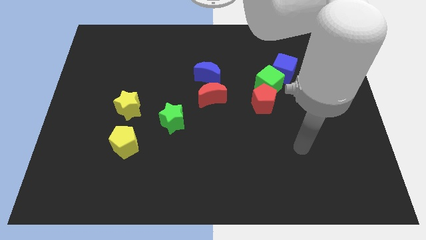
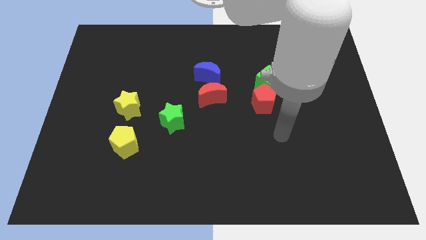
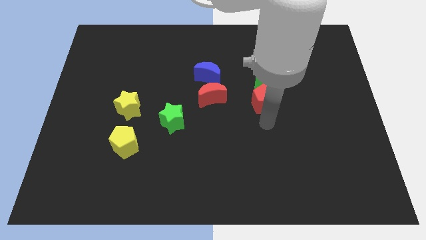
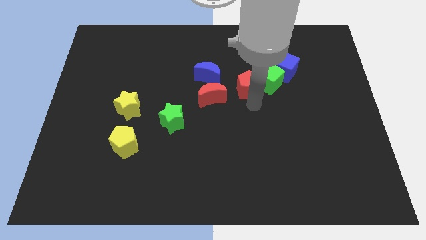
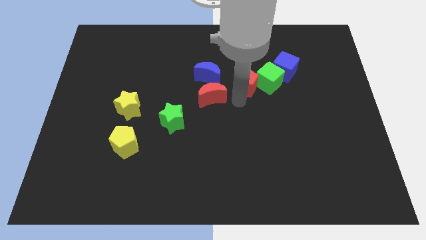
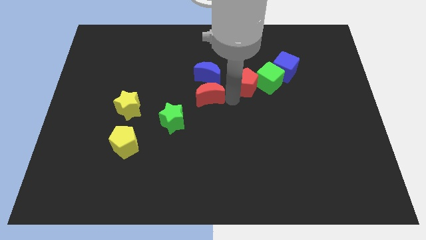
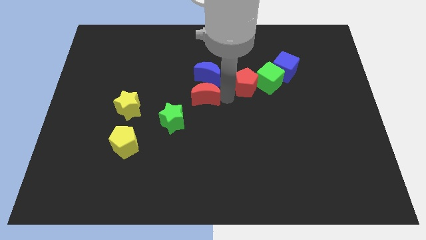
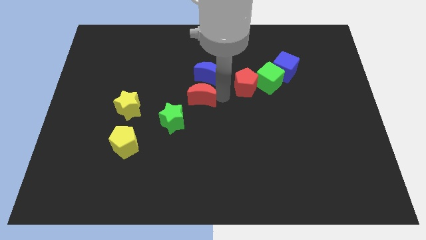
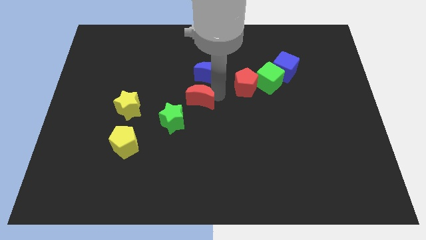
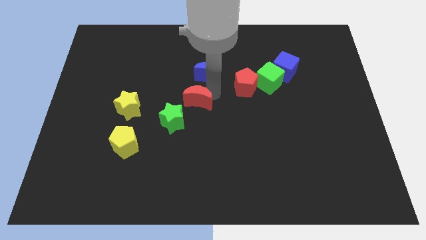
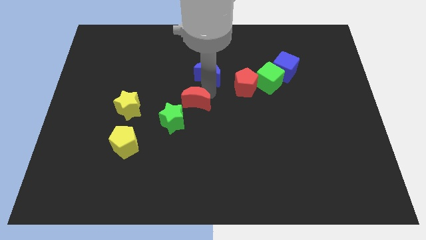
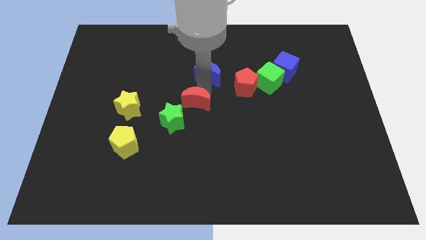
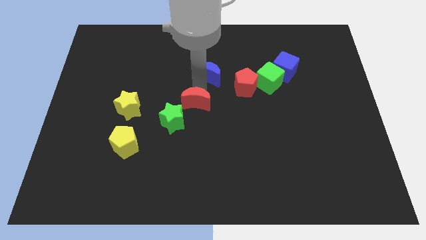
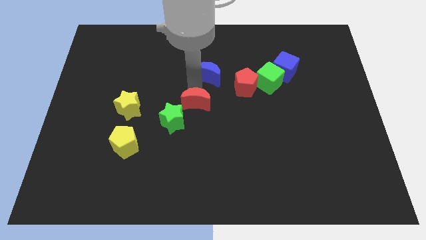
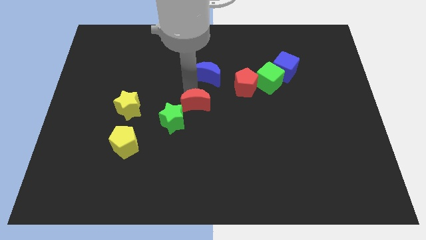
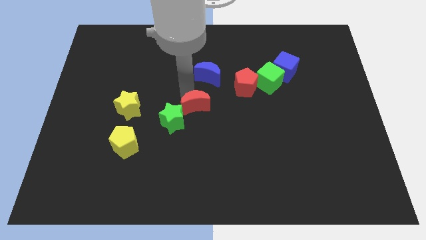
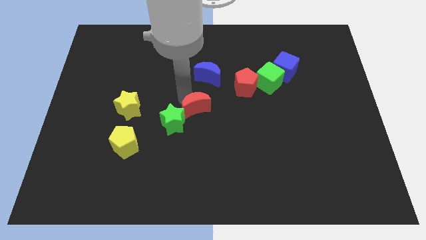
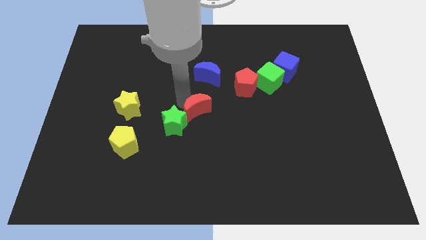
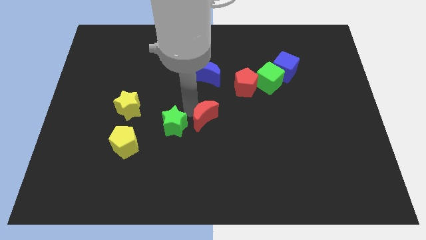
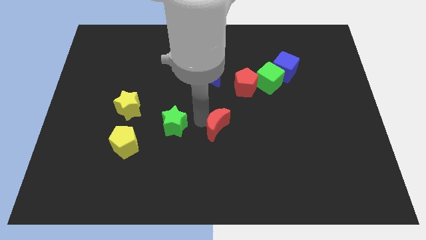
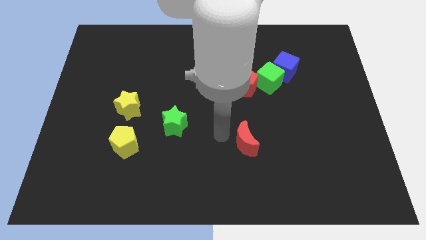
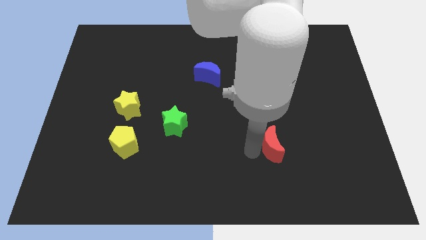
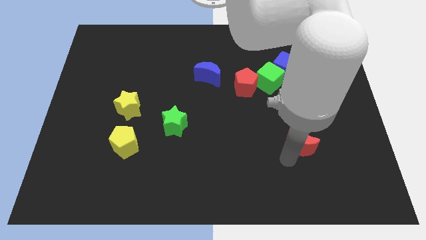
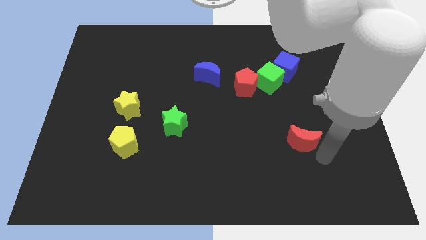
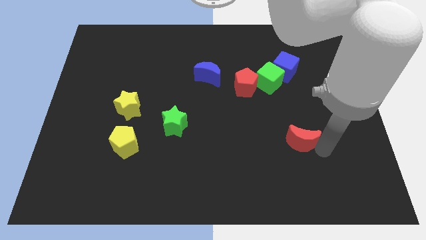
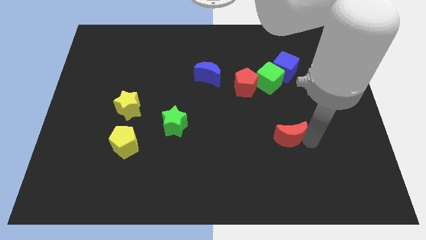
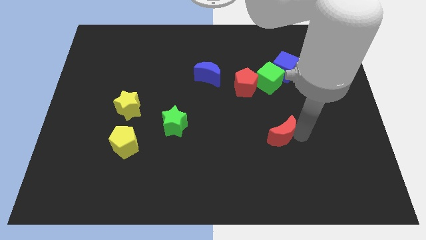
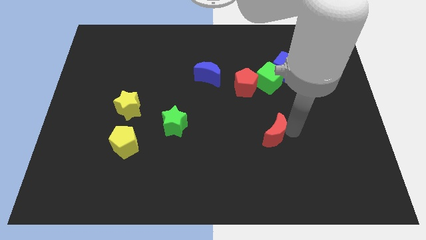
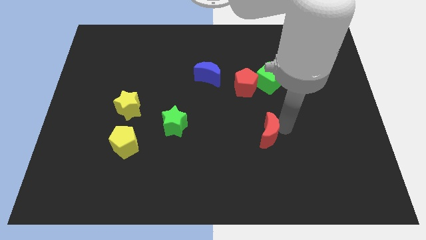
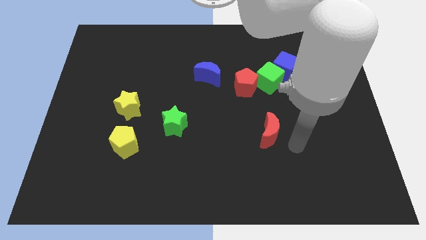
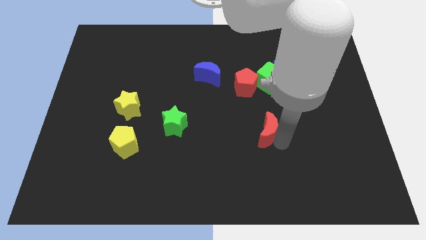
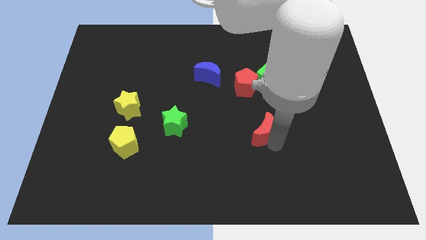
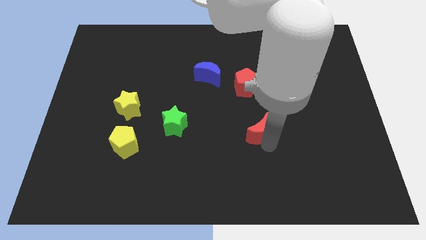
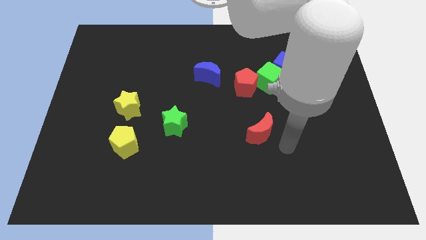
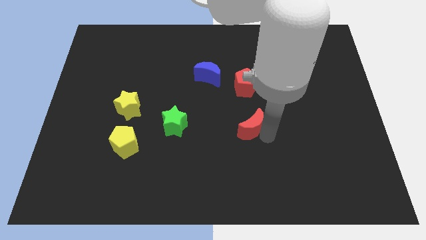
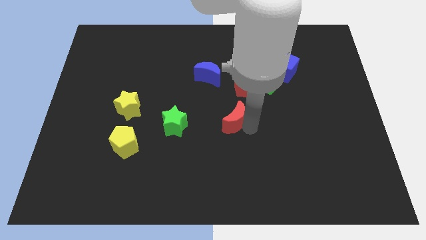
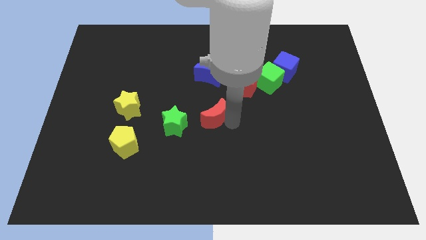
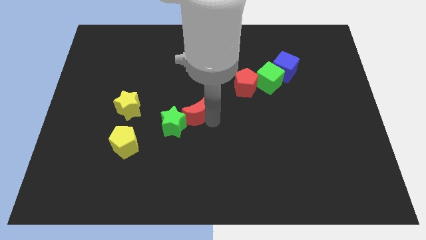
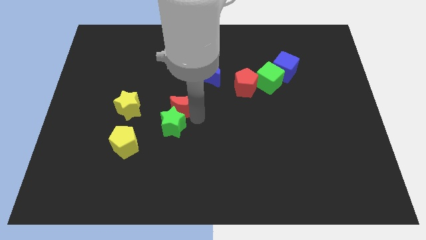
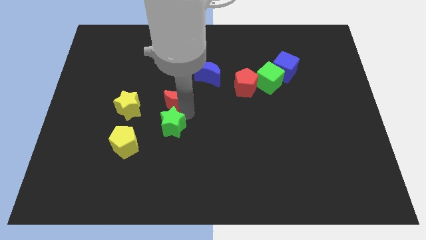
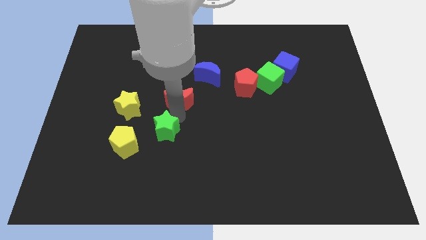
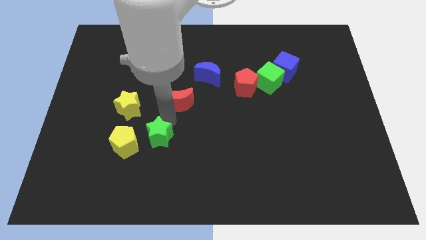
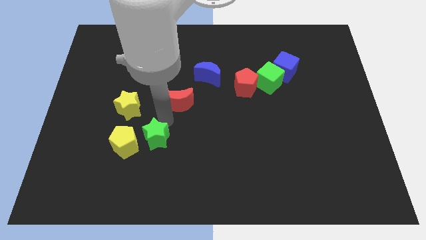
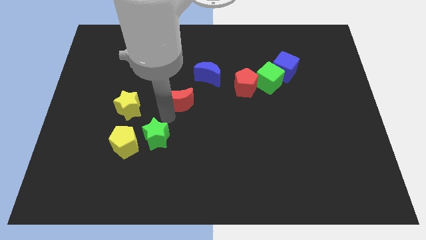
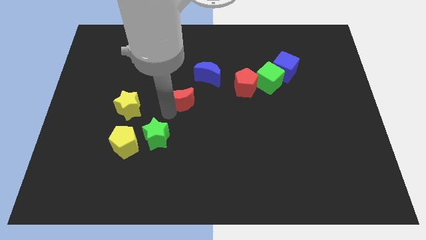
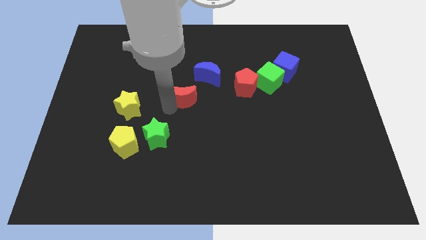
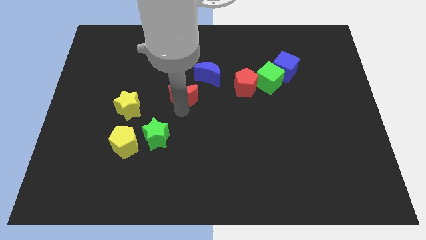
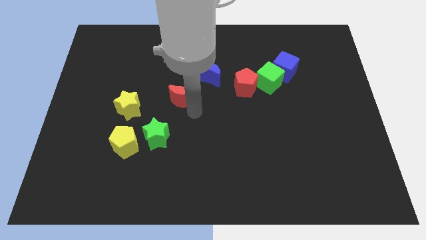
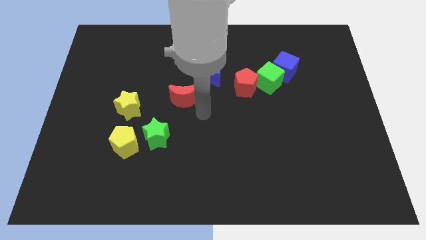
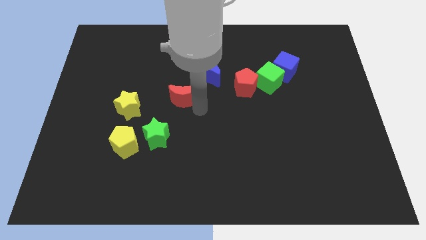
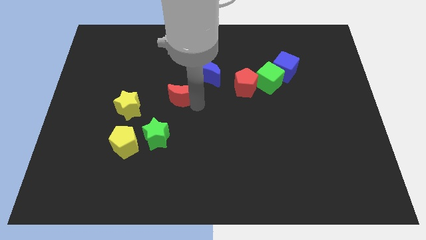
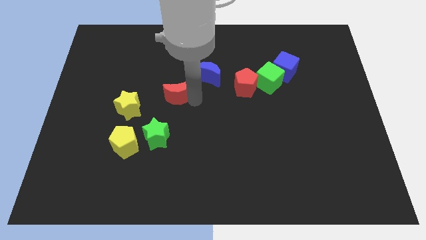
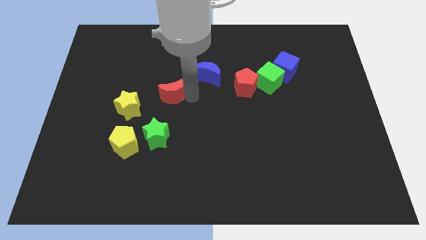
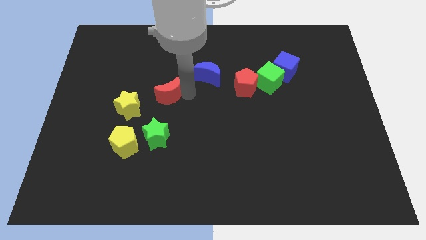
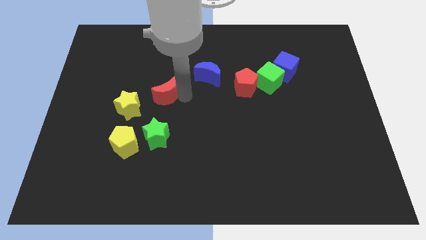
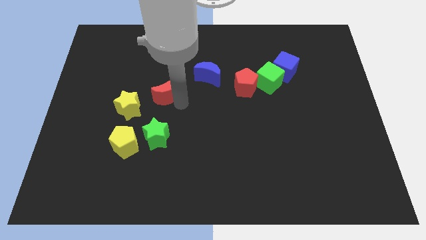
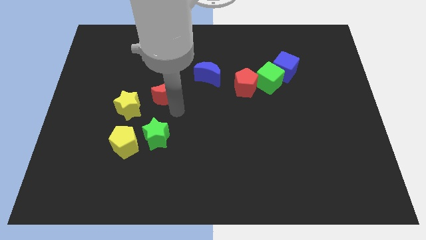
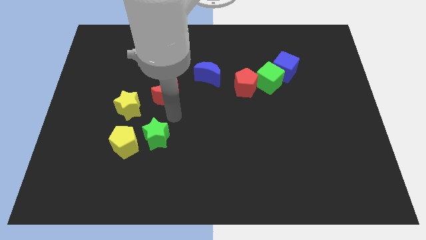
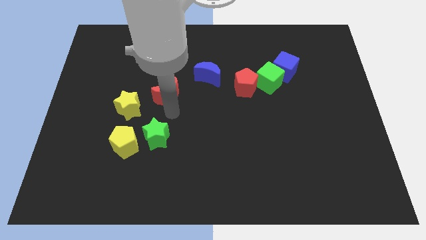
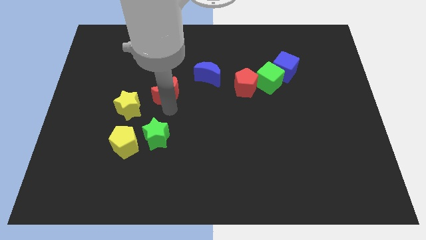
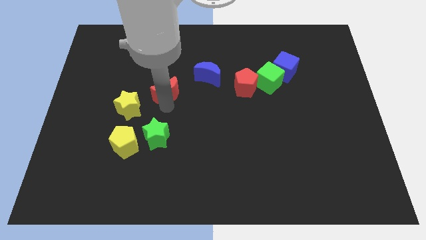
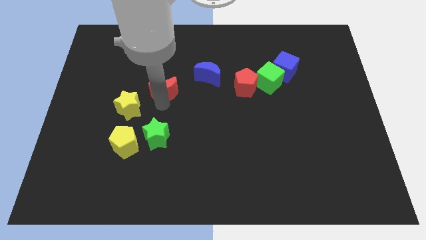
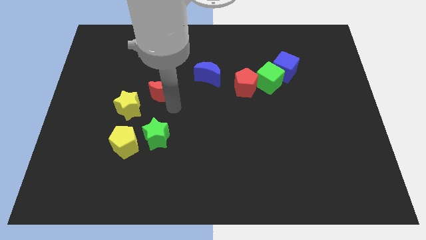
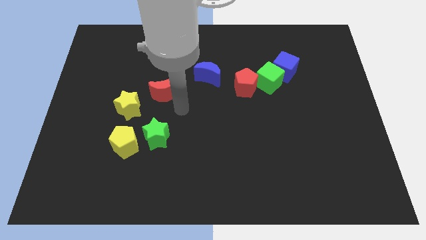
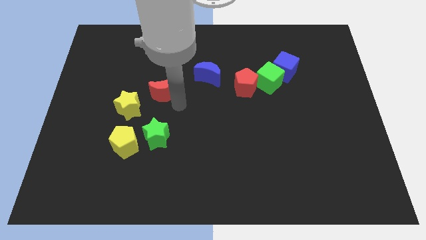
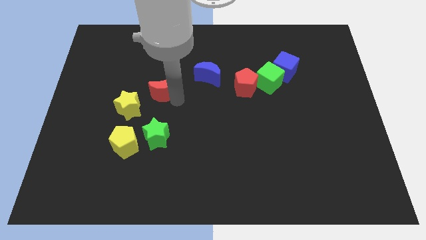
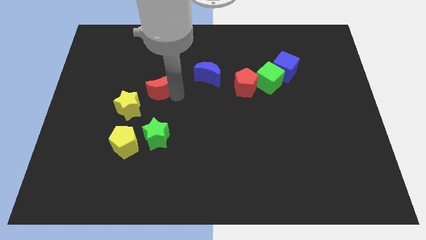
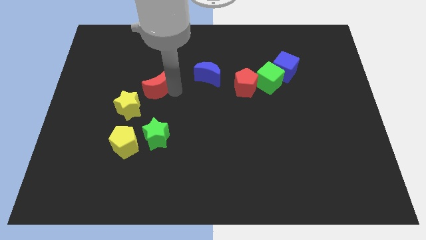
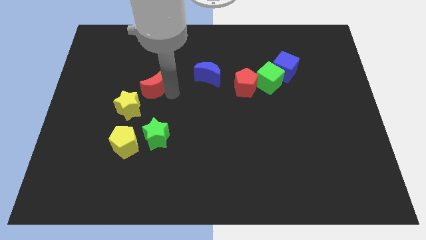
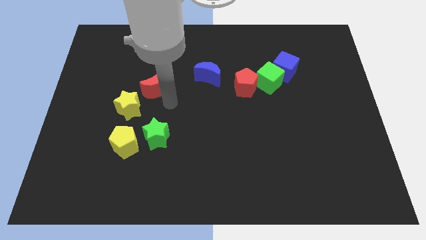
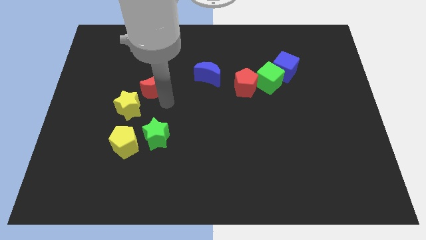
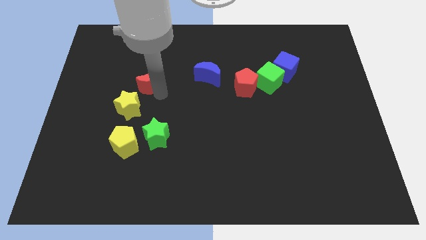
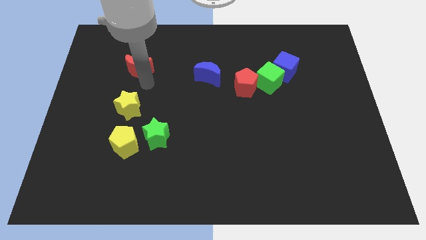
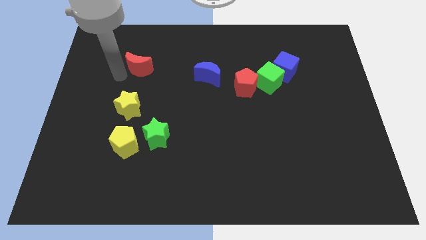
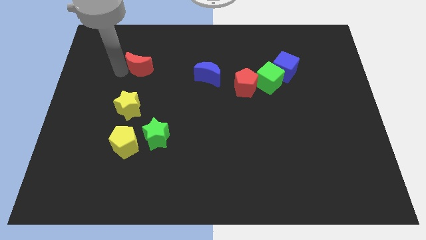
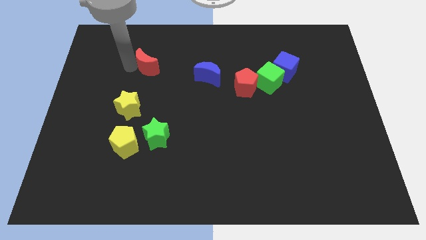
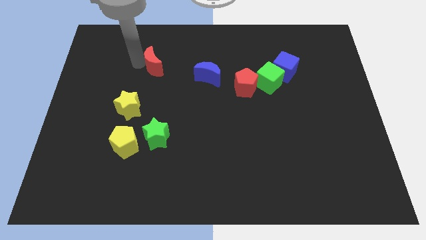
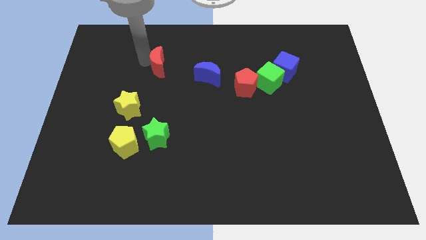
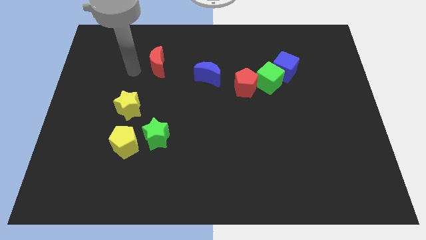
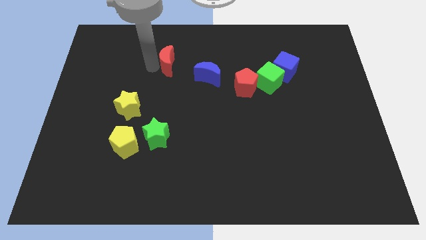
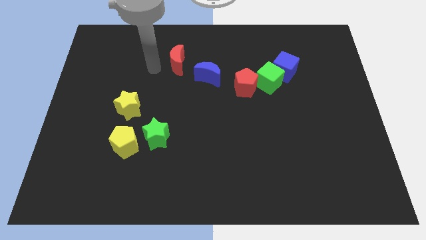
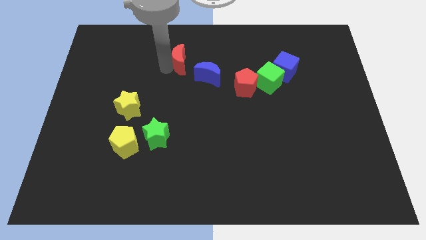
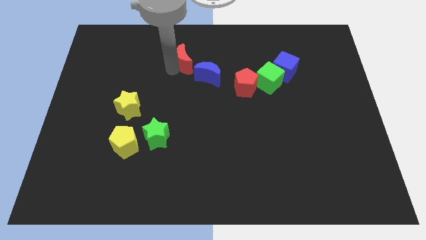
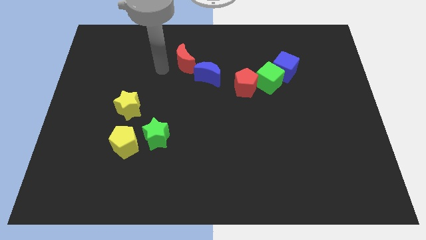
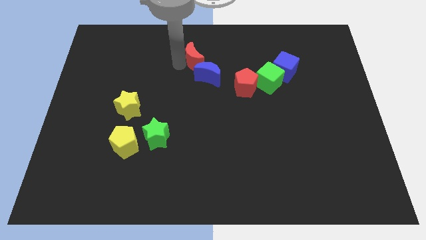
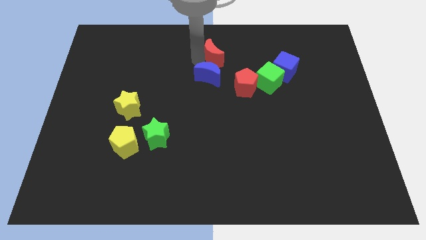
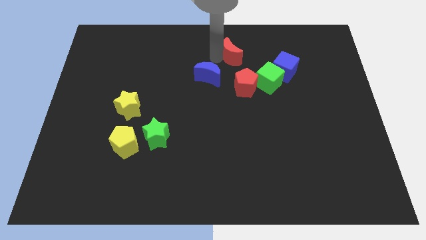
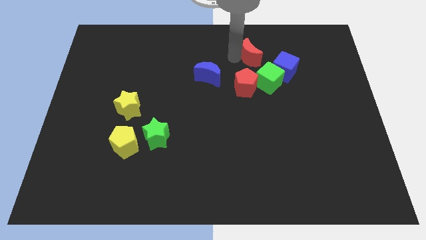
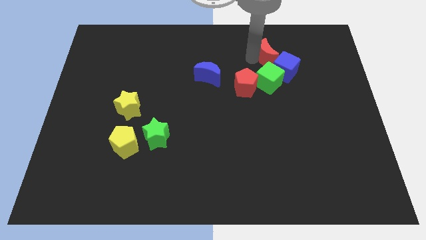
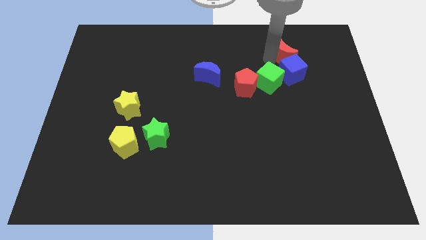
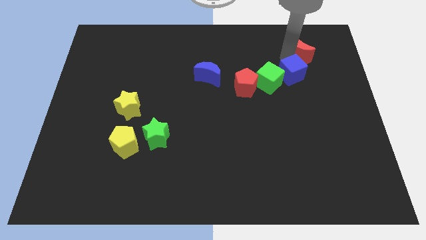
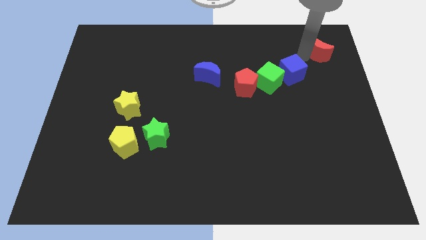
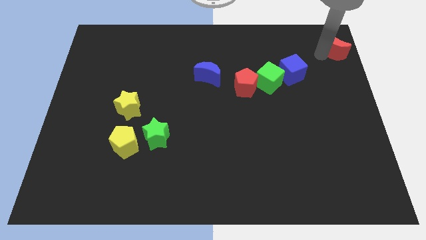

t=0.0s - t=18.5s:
slide the red moon to the top right
